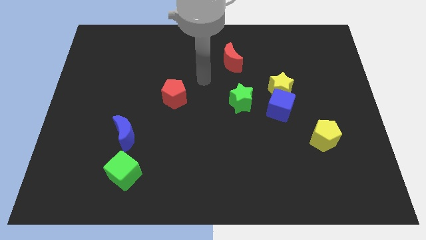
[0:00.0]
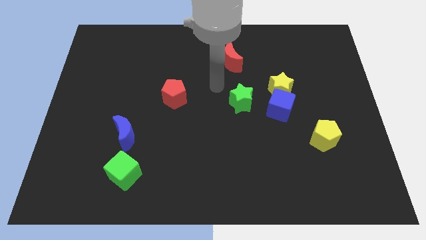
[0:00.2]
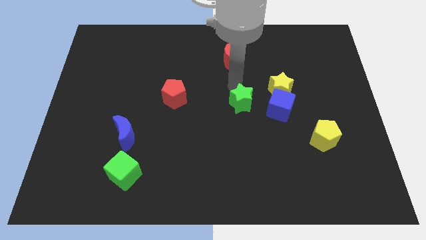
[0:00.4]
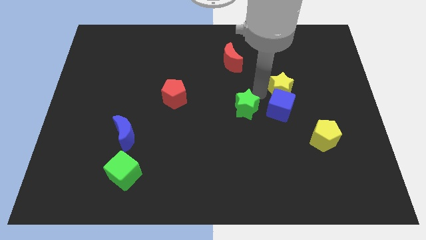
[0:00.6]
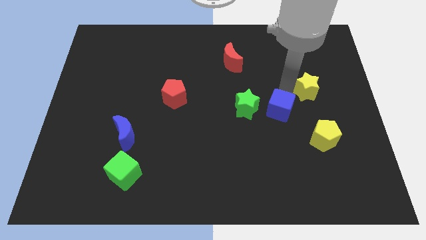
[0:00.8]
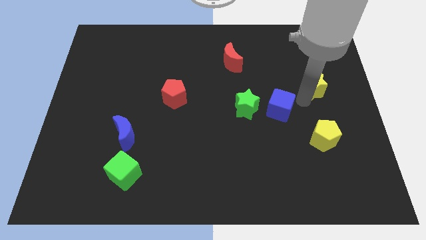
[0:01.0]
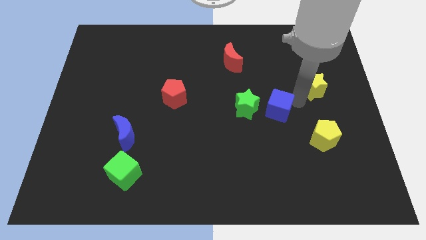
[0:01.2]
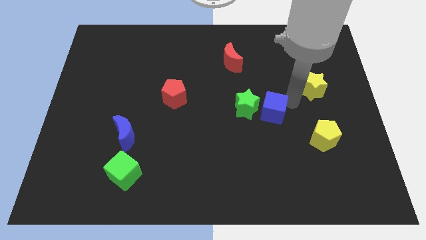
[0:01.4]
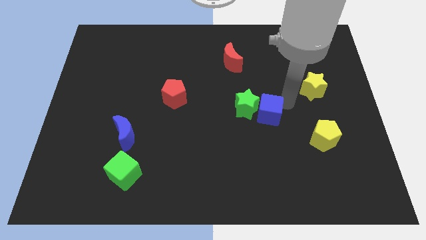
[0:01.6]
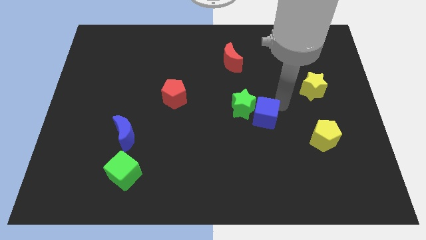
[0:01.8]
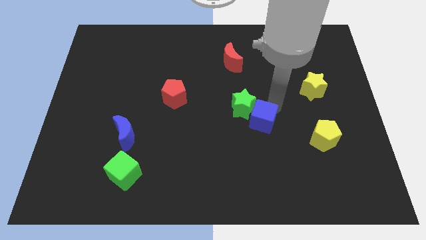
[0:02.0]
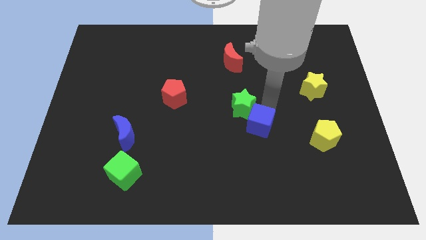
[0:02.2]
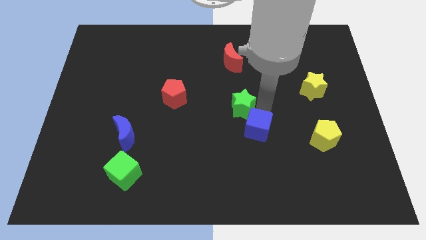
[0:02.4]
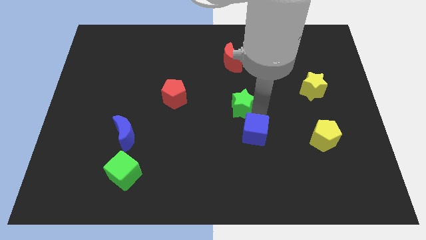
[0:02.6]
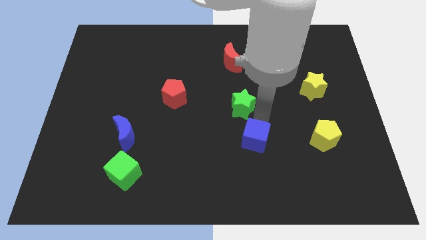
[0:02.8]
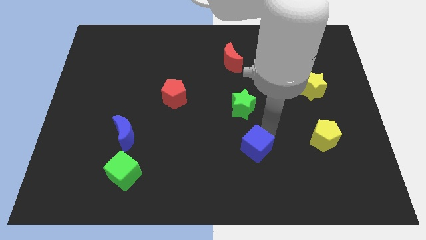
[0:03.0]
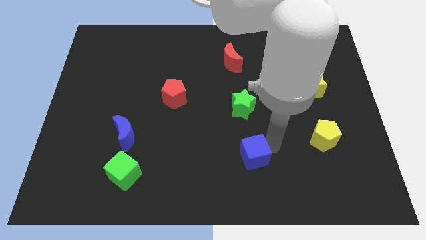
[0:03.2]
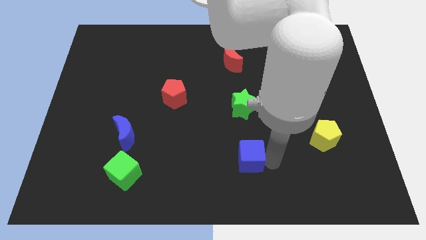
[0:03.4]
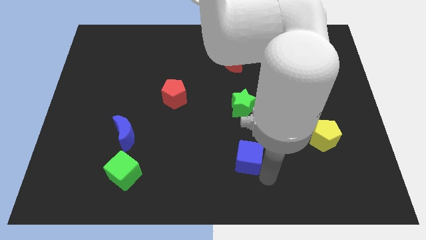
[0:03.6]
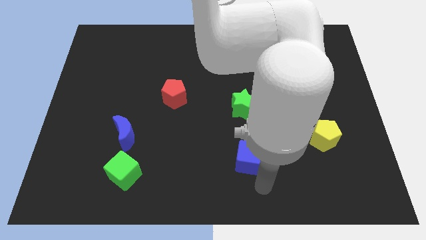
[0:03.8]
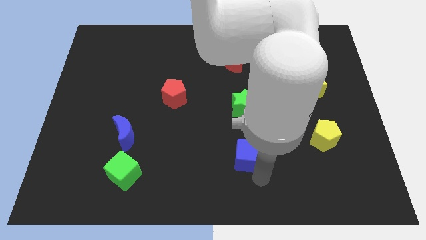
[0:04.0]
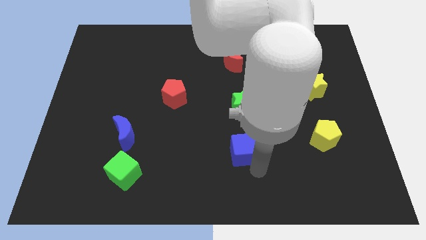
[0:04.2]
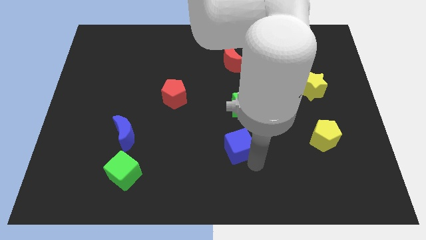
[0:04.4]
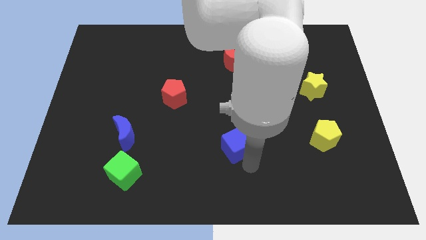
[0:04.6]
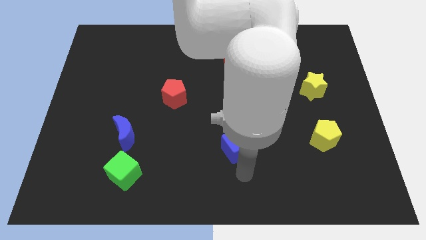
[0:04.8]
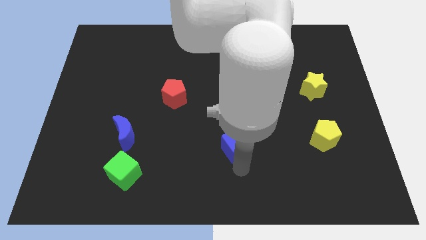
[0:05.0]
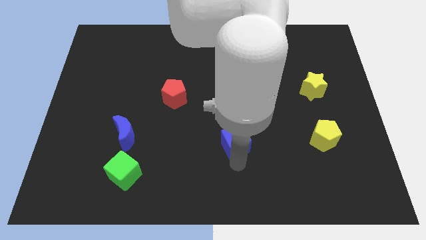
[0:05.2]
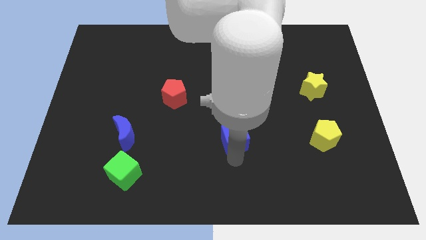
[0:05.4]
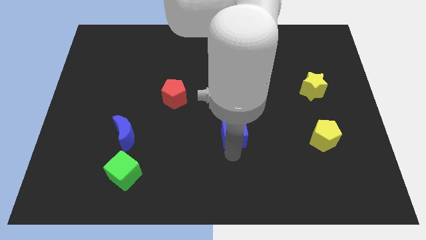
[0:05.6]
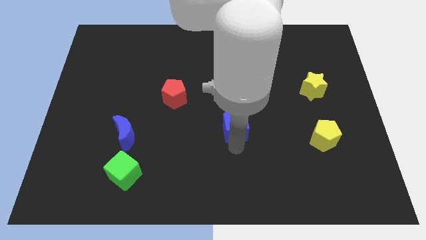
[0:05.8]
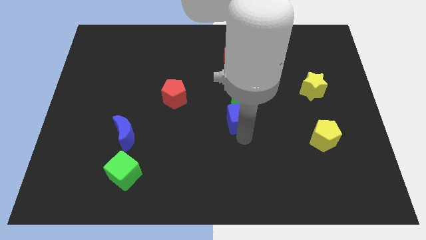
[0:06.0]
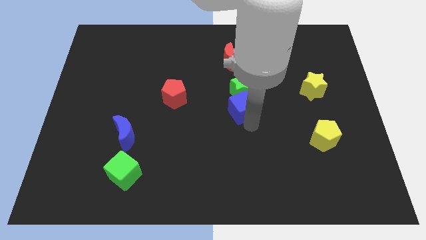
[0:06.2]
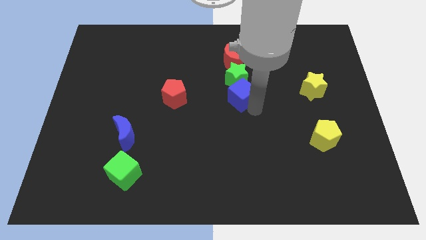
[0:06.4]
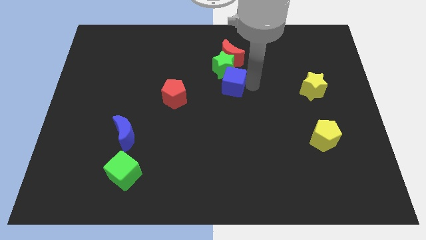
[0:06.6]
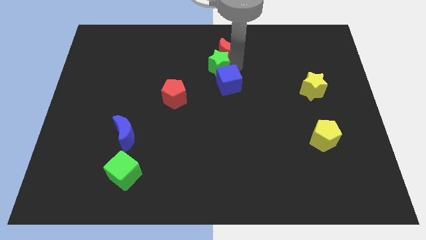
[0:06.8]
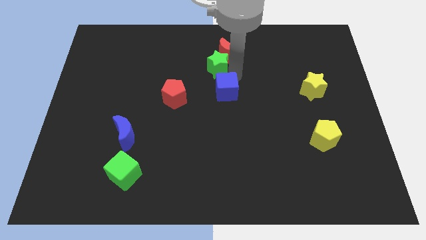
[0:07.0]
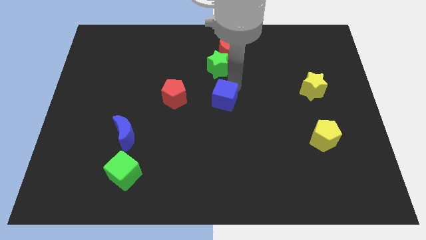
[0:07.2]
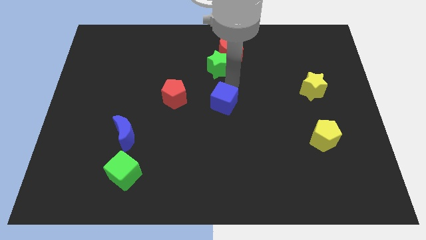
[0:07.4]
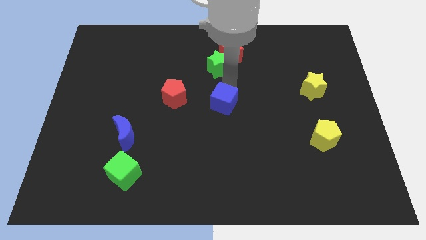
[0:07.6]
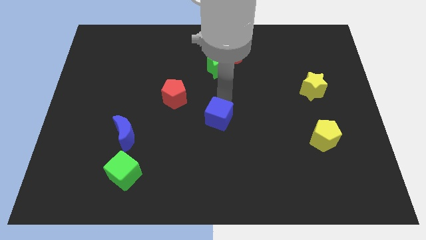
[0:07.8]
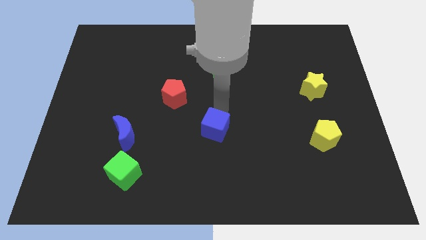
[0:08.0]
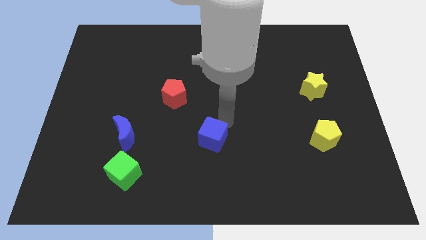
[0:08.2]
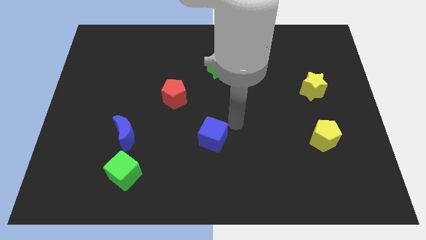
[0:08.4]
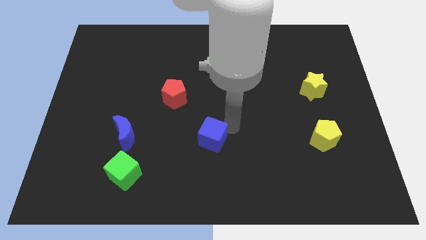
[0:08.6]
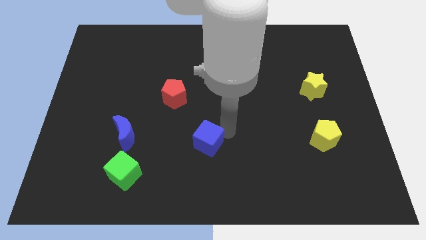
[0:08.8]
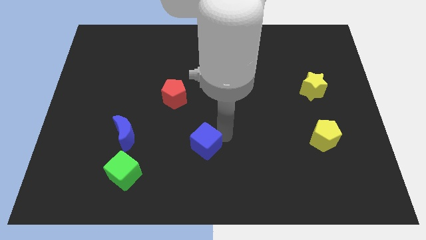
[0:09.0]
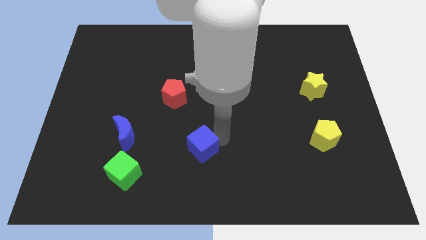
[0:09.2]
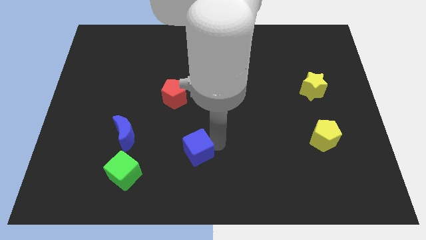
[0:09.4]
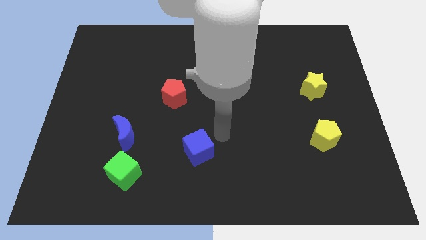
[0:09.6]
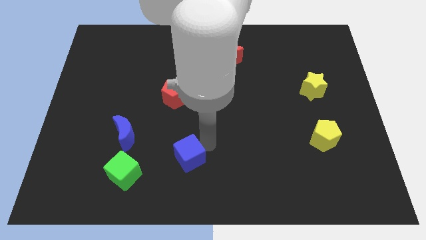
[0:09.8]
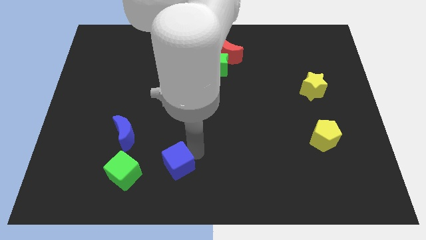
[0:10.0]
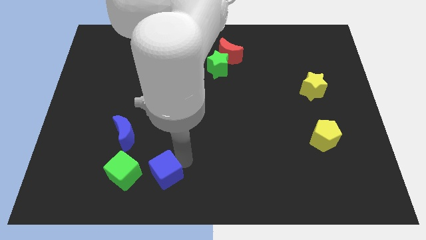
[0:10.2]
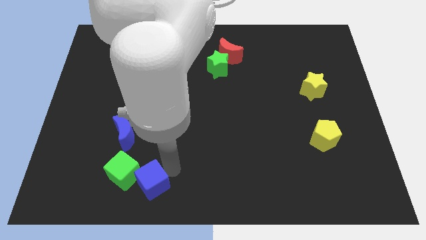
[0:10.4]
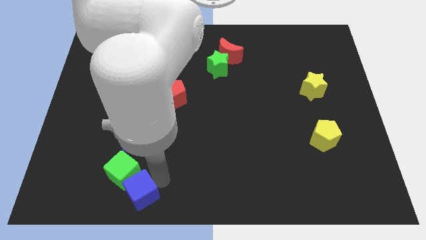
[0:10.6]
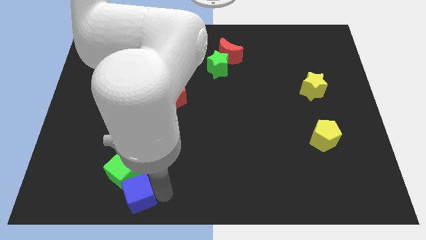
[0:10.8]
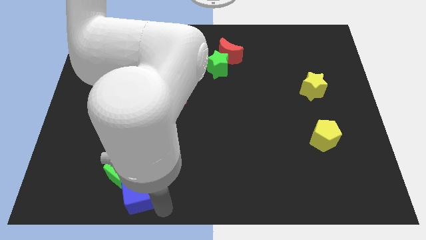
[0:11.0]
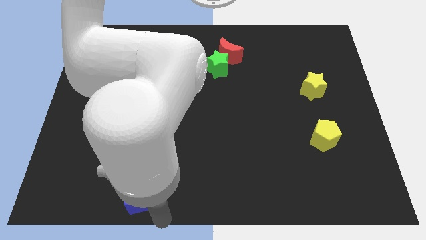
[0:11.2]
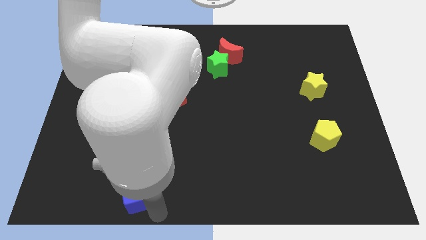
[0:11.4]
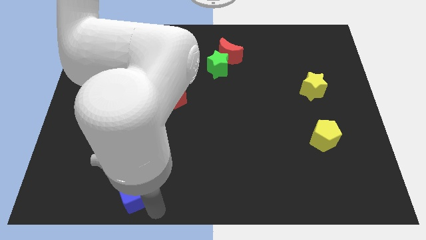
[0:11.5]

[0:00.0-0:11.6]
move the blue cube to the bottom of the blue moon
